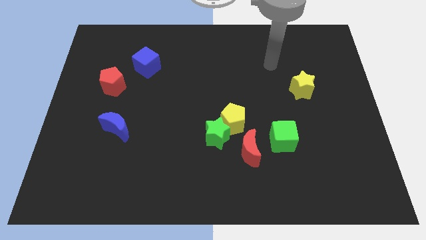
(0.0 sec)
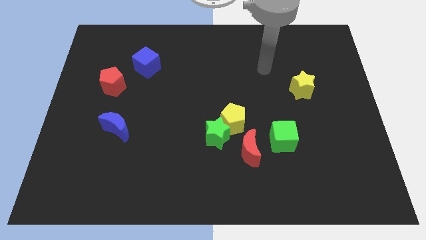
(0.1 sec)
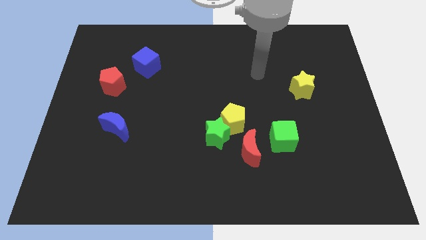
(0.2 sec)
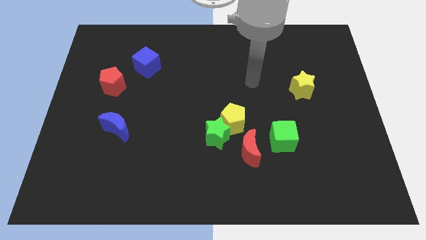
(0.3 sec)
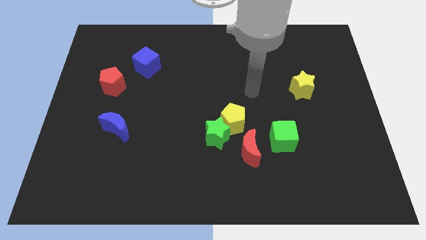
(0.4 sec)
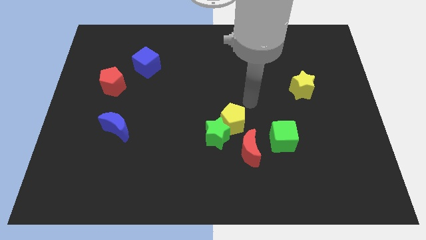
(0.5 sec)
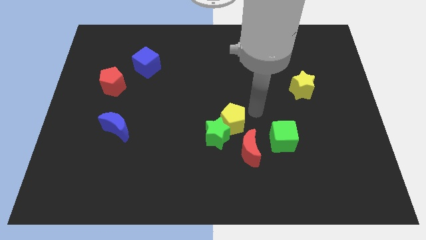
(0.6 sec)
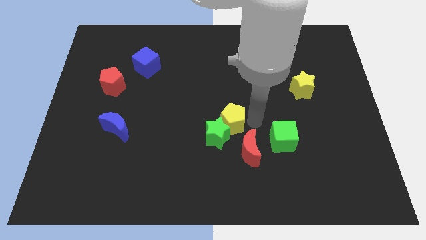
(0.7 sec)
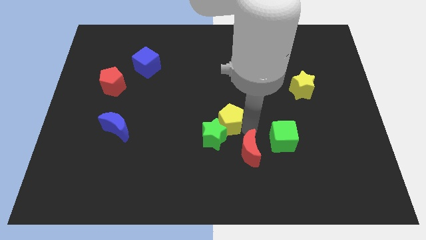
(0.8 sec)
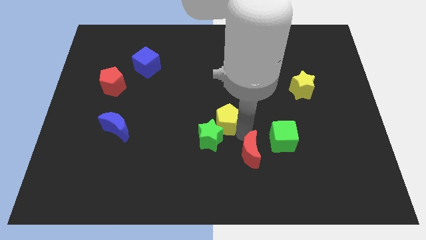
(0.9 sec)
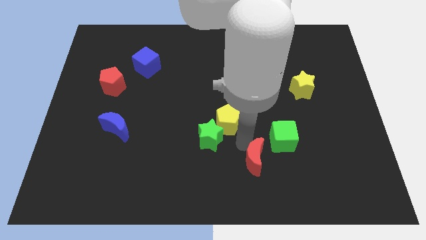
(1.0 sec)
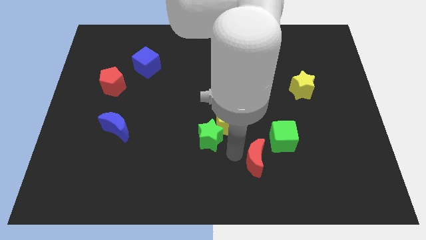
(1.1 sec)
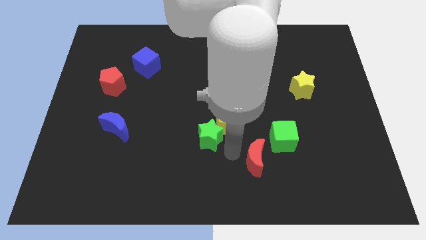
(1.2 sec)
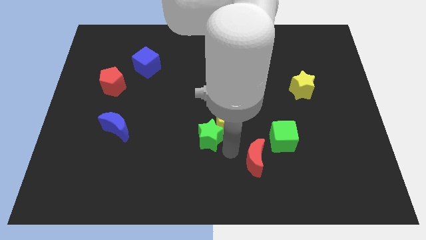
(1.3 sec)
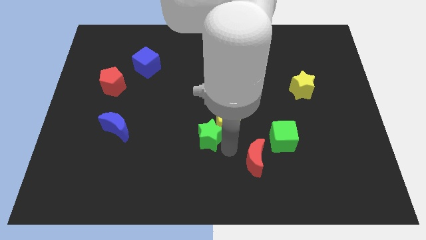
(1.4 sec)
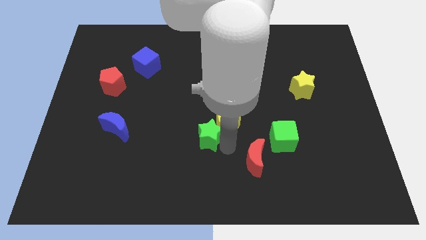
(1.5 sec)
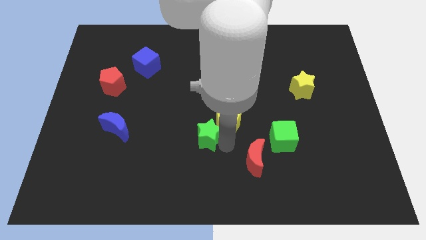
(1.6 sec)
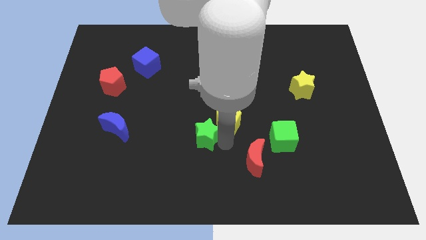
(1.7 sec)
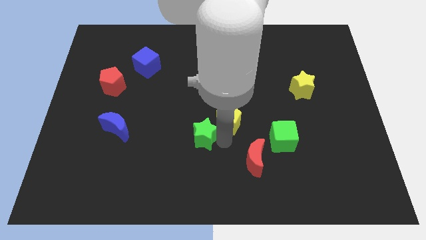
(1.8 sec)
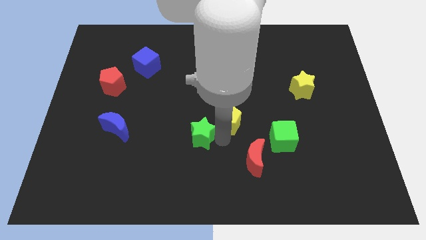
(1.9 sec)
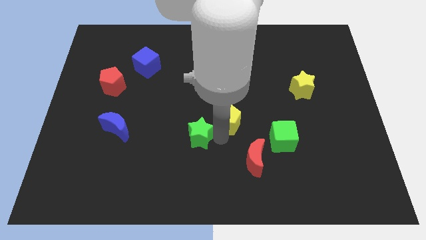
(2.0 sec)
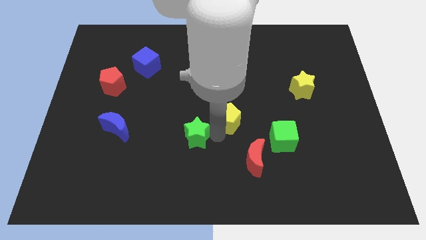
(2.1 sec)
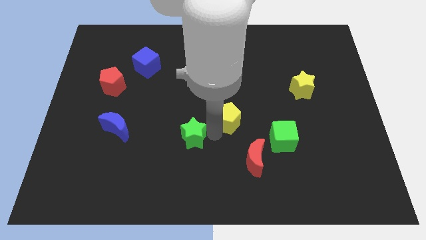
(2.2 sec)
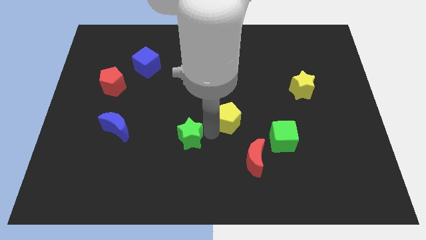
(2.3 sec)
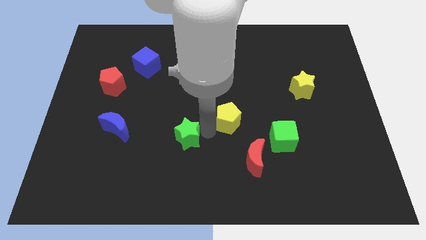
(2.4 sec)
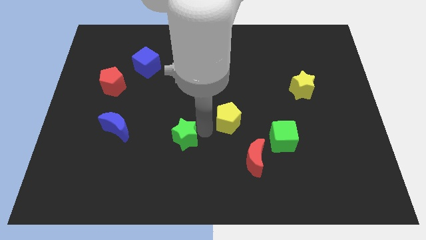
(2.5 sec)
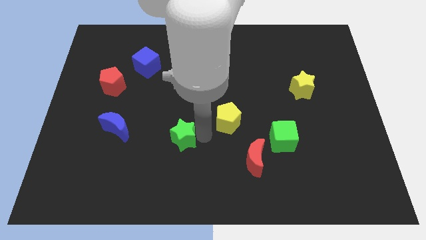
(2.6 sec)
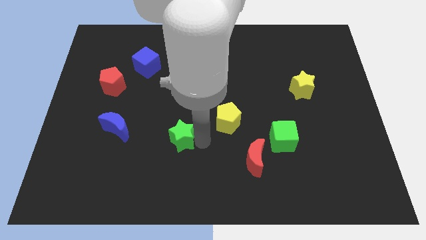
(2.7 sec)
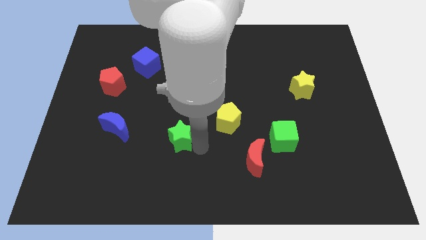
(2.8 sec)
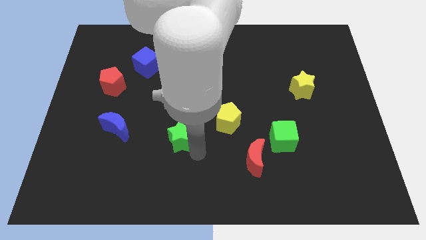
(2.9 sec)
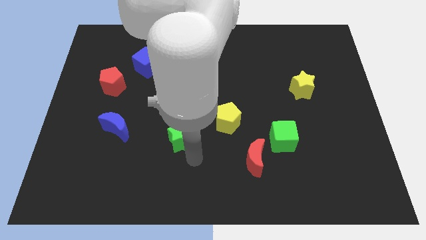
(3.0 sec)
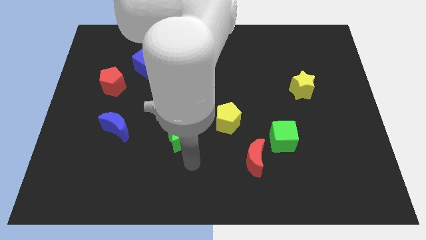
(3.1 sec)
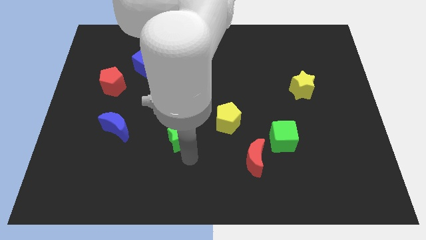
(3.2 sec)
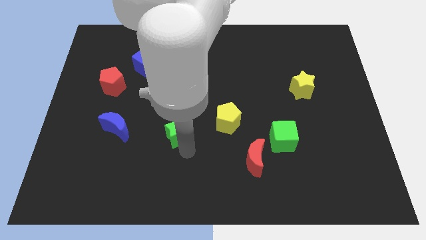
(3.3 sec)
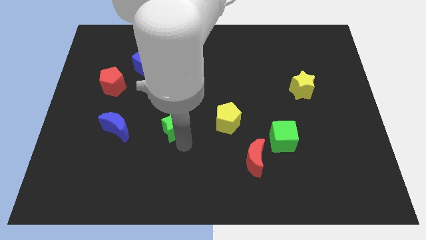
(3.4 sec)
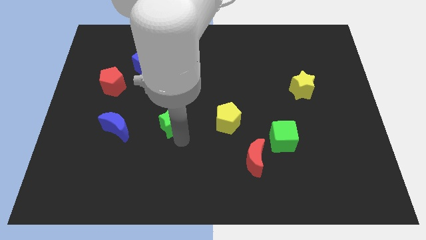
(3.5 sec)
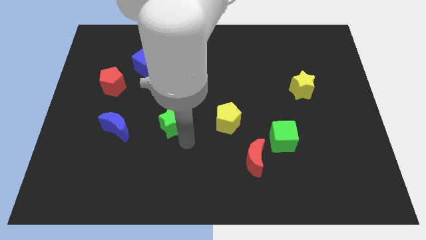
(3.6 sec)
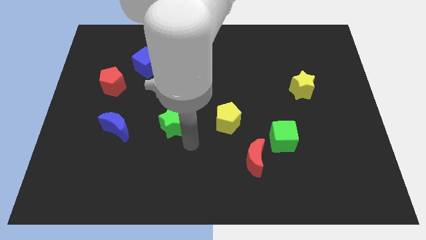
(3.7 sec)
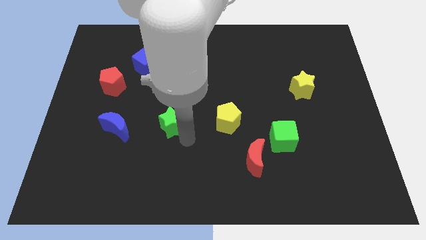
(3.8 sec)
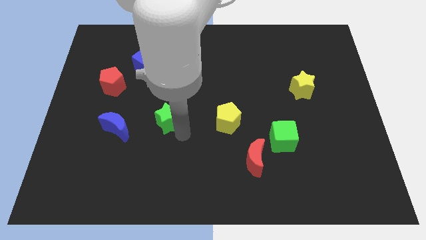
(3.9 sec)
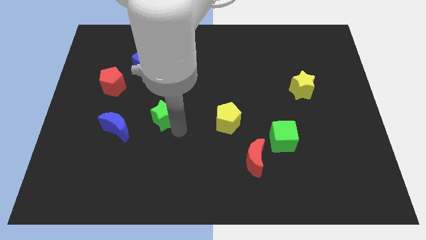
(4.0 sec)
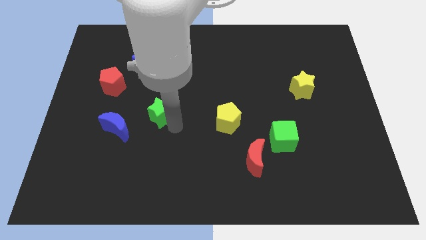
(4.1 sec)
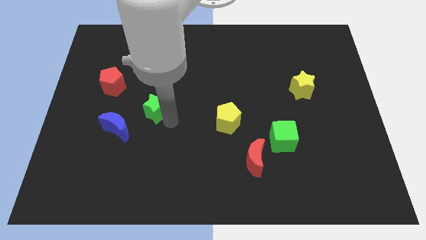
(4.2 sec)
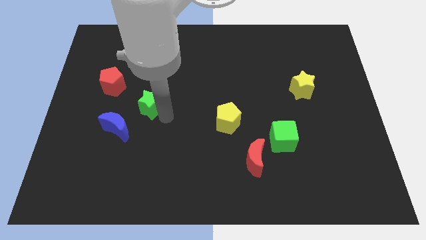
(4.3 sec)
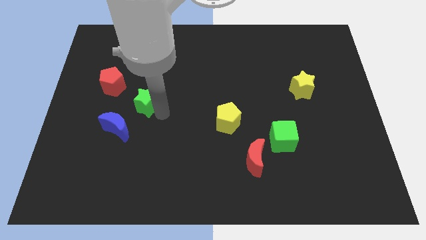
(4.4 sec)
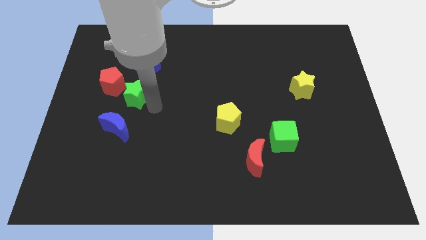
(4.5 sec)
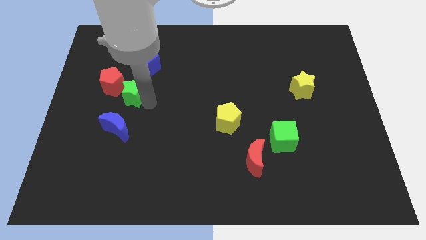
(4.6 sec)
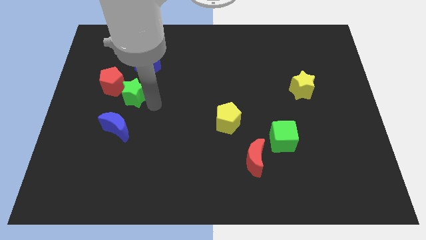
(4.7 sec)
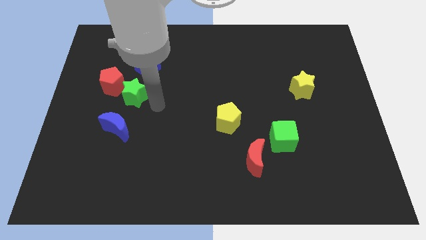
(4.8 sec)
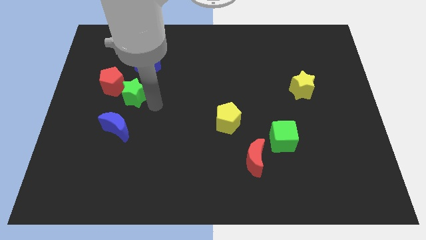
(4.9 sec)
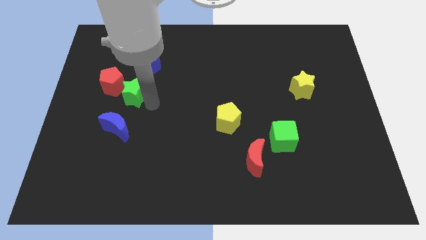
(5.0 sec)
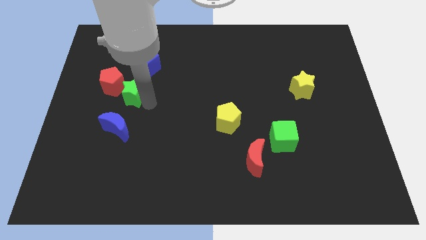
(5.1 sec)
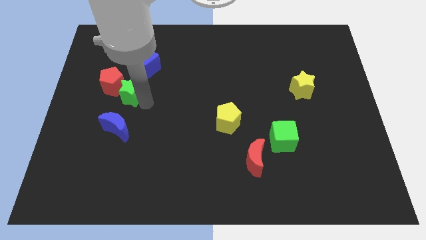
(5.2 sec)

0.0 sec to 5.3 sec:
put the green star close to the red pentagon

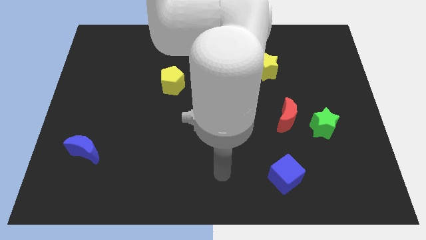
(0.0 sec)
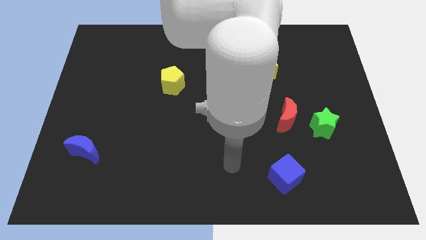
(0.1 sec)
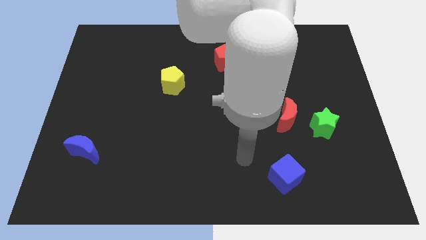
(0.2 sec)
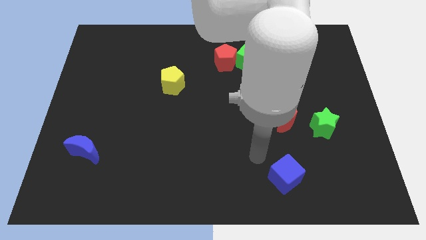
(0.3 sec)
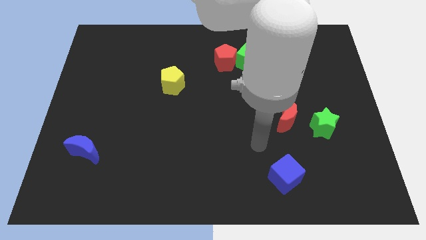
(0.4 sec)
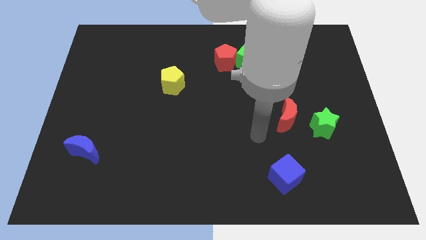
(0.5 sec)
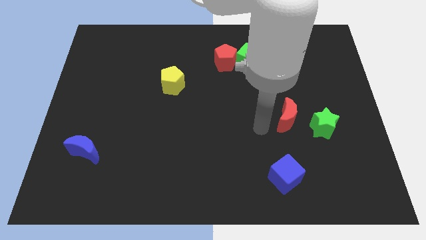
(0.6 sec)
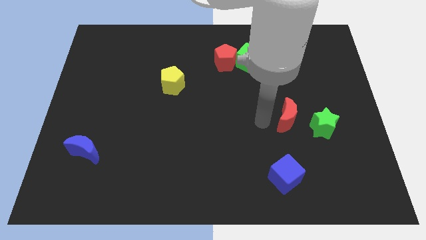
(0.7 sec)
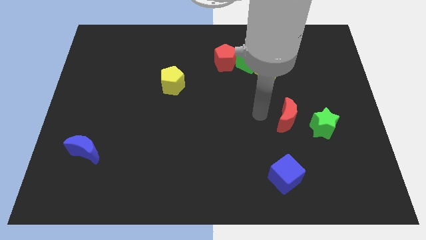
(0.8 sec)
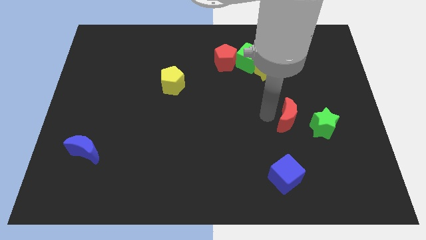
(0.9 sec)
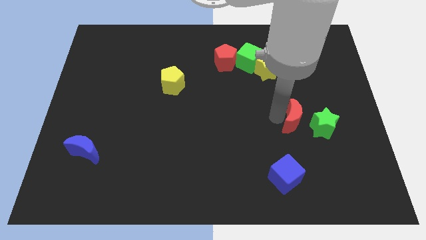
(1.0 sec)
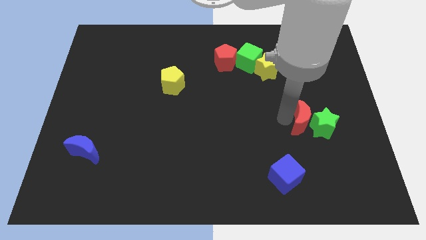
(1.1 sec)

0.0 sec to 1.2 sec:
push the red moon towards the green star
